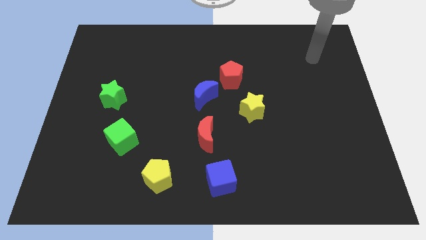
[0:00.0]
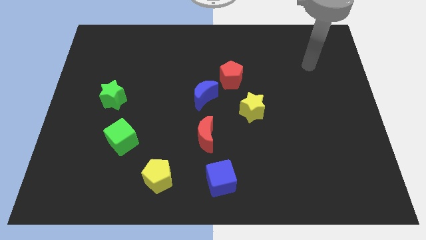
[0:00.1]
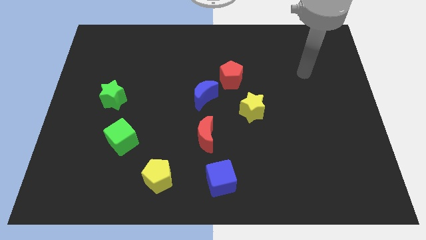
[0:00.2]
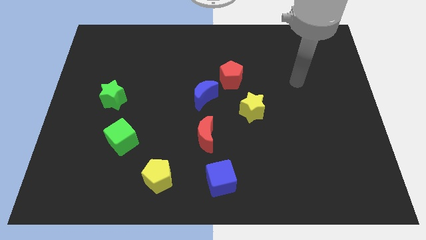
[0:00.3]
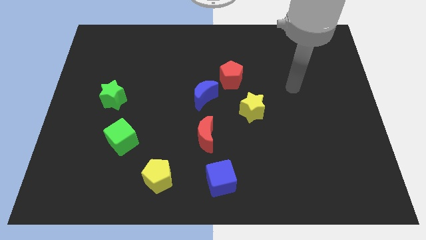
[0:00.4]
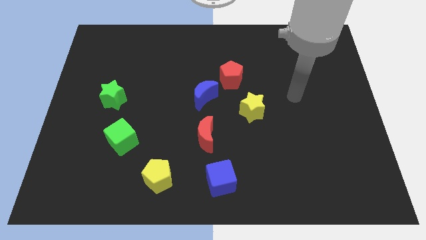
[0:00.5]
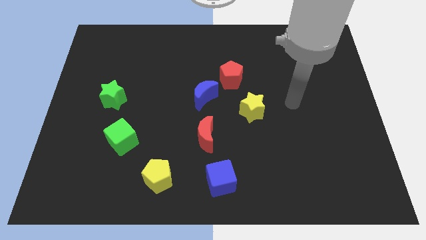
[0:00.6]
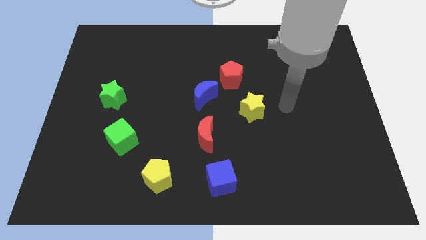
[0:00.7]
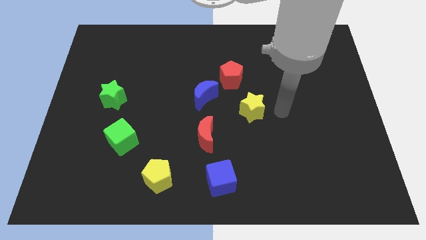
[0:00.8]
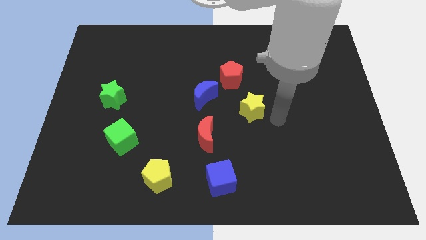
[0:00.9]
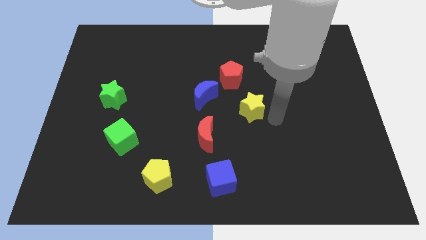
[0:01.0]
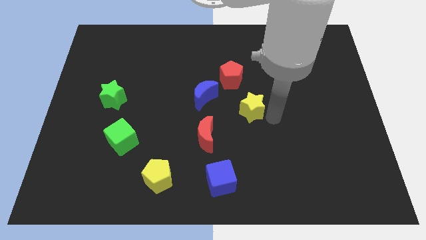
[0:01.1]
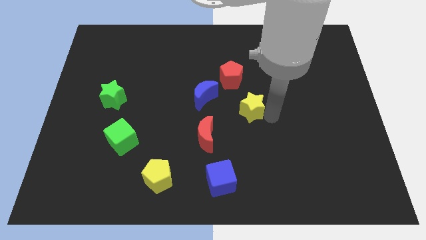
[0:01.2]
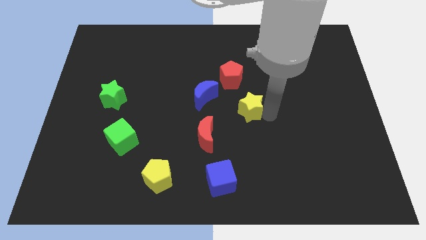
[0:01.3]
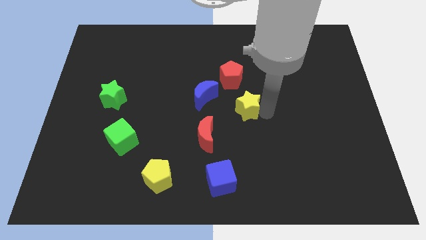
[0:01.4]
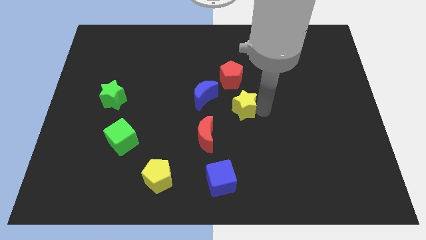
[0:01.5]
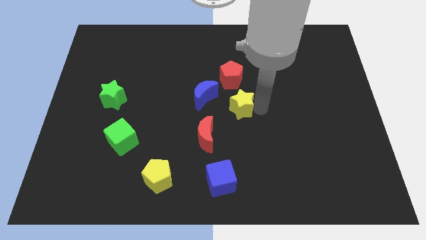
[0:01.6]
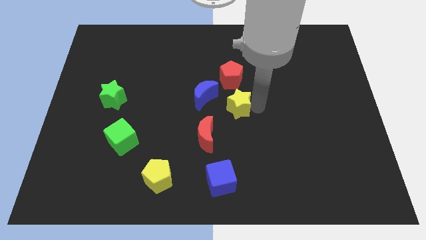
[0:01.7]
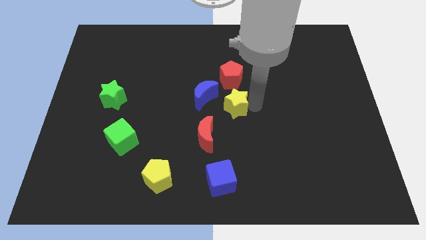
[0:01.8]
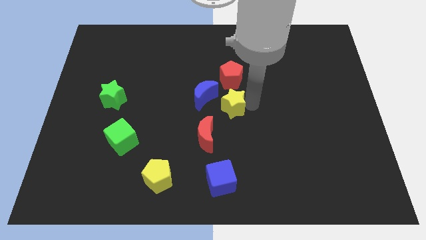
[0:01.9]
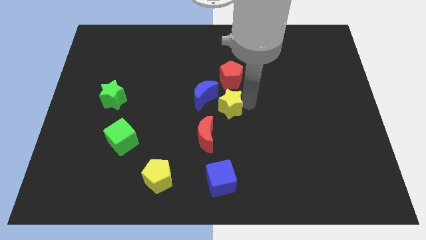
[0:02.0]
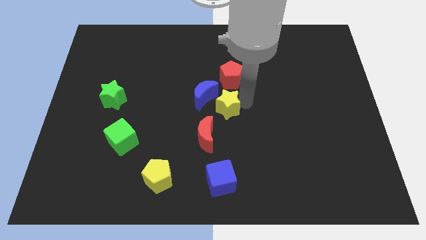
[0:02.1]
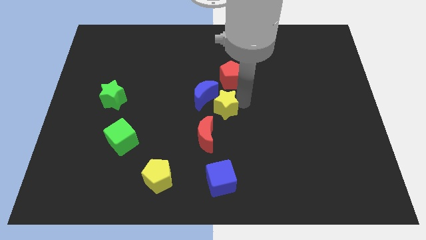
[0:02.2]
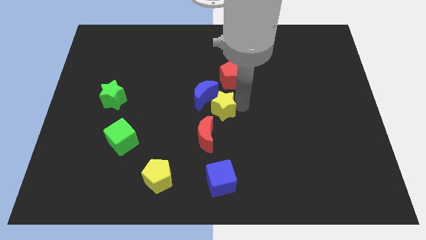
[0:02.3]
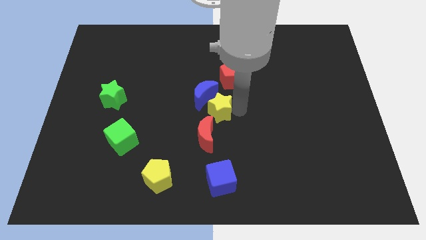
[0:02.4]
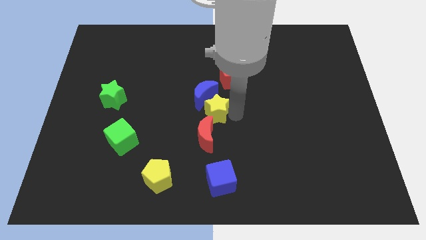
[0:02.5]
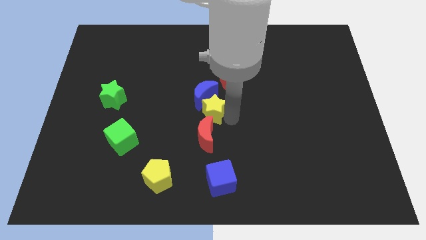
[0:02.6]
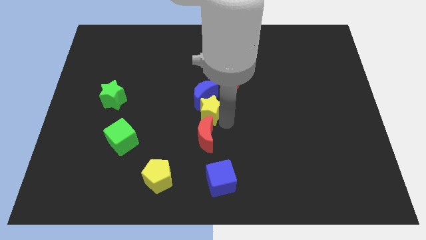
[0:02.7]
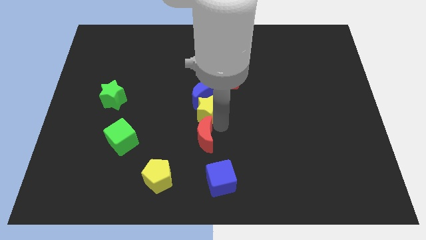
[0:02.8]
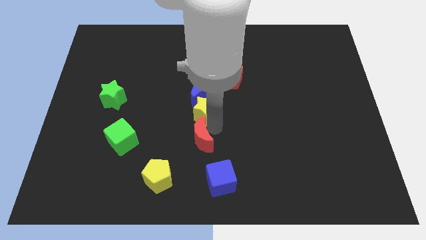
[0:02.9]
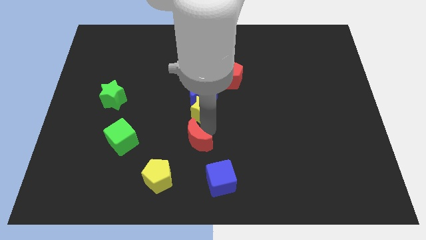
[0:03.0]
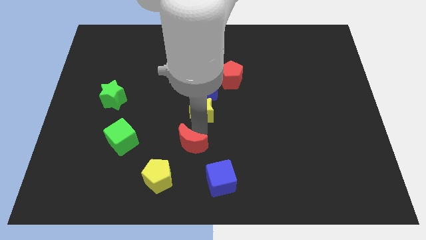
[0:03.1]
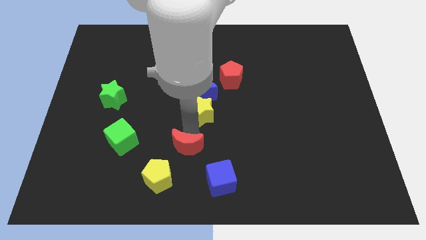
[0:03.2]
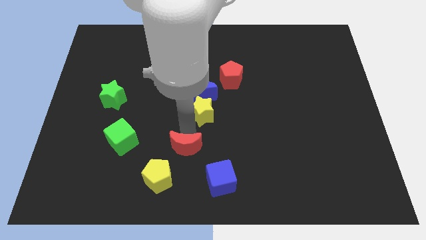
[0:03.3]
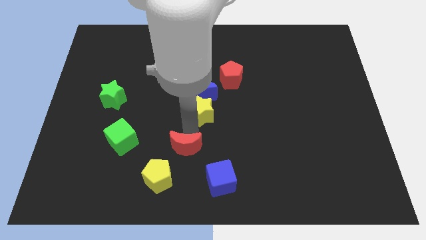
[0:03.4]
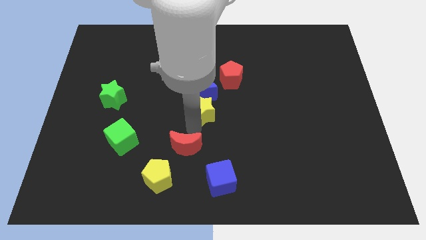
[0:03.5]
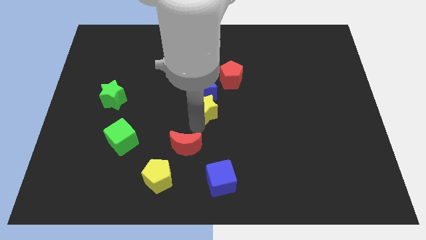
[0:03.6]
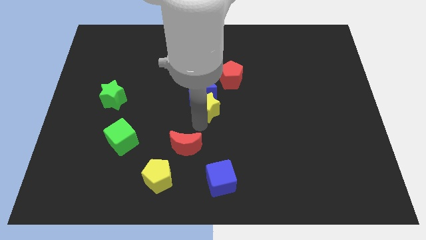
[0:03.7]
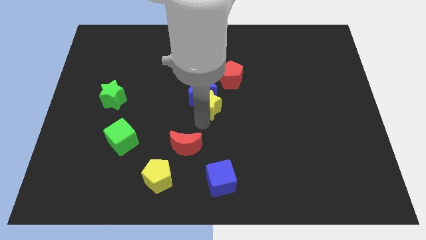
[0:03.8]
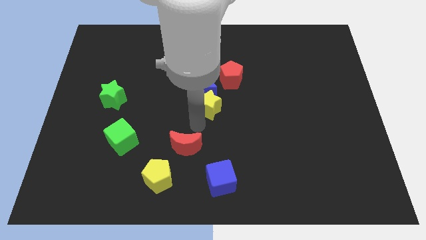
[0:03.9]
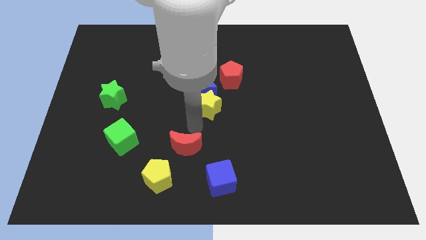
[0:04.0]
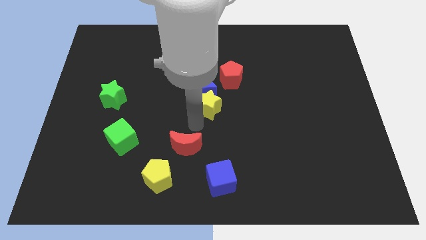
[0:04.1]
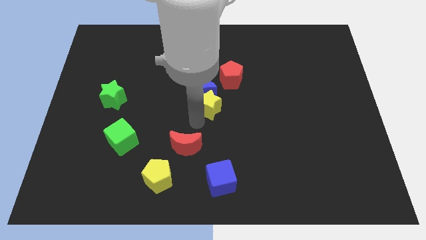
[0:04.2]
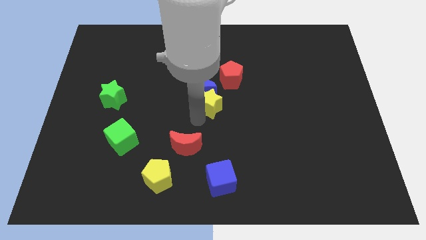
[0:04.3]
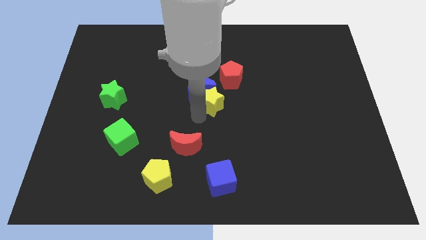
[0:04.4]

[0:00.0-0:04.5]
push the yellow star somewhat diagonally upwards and to the left

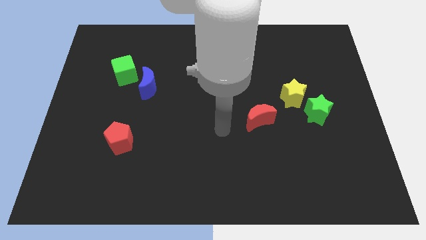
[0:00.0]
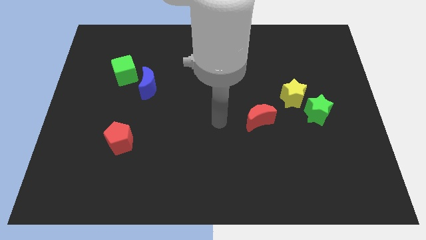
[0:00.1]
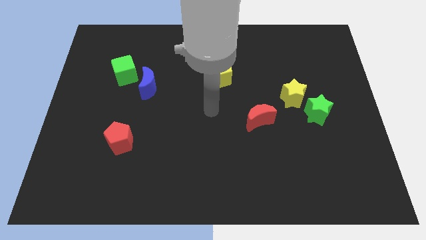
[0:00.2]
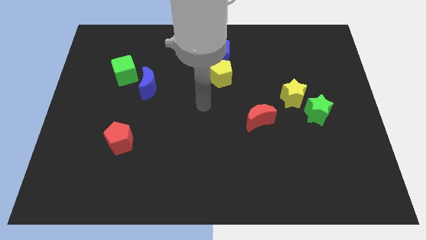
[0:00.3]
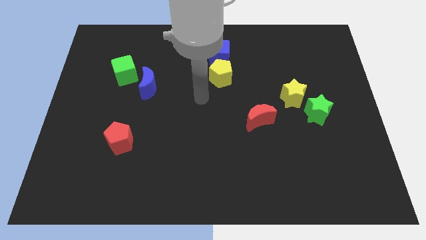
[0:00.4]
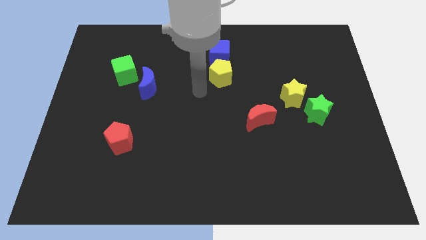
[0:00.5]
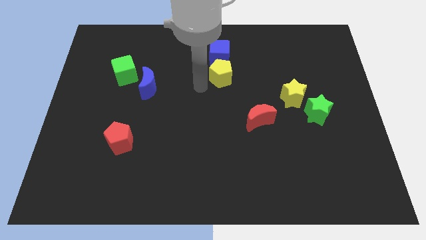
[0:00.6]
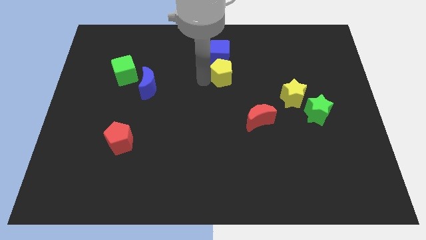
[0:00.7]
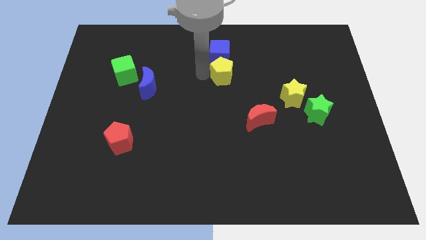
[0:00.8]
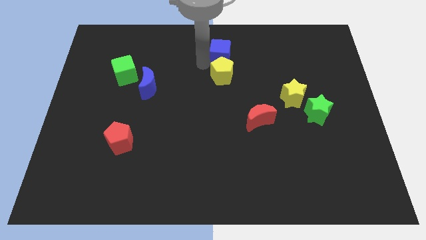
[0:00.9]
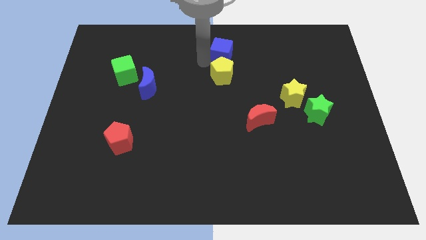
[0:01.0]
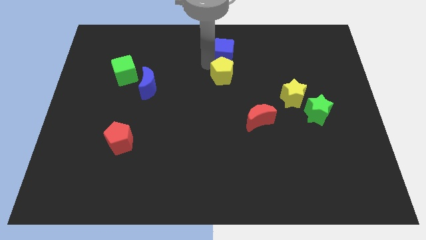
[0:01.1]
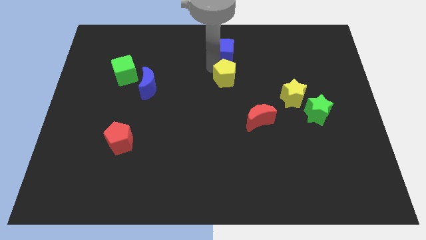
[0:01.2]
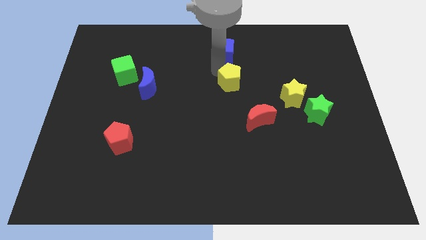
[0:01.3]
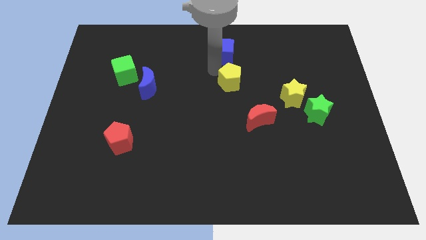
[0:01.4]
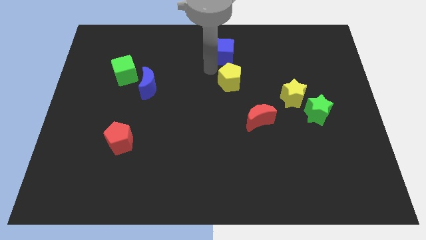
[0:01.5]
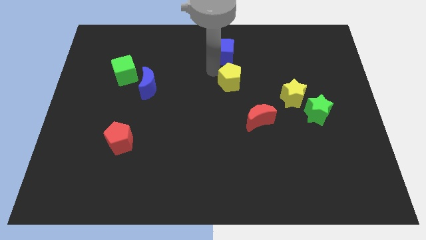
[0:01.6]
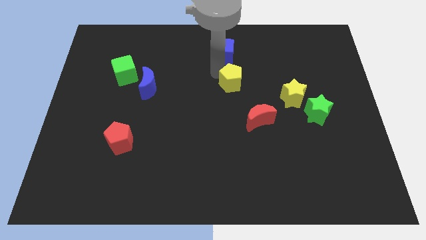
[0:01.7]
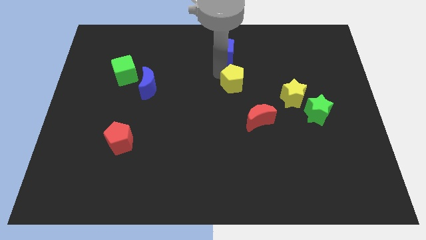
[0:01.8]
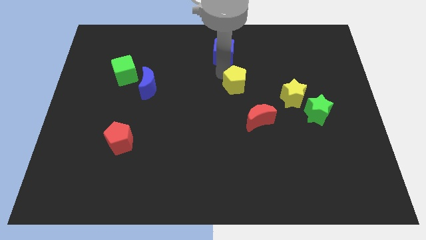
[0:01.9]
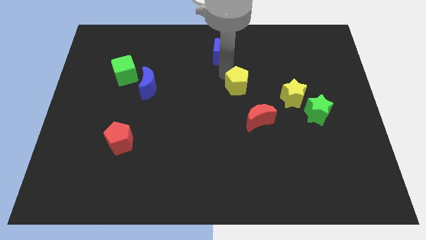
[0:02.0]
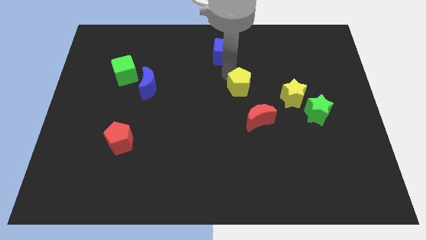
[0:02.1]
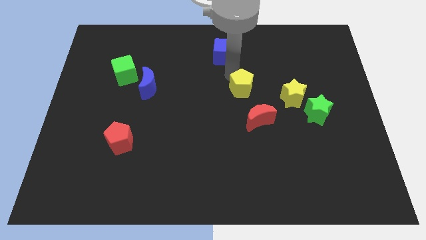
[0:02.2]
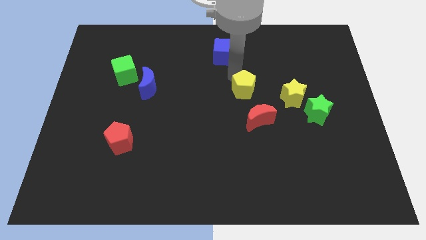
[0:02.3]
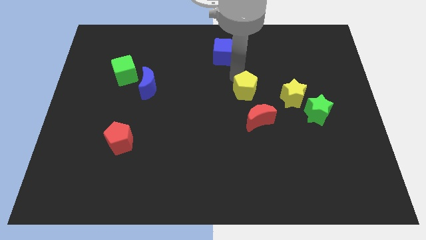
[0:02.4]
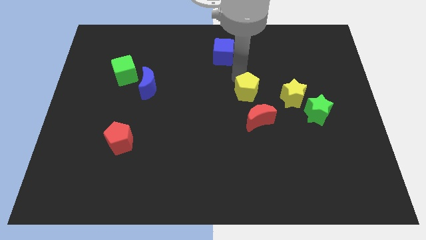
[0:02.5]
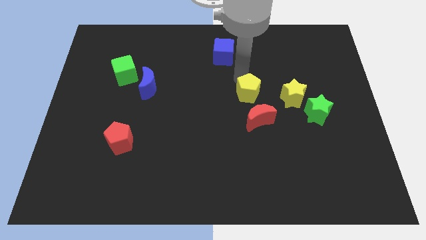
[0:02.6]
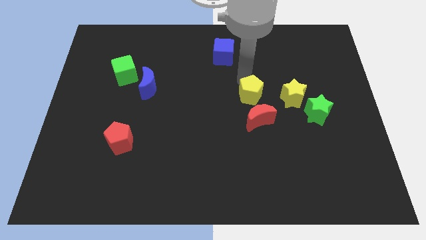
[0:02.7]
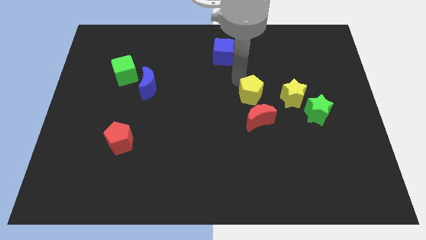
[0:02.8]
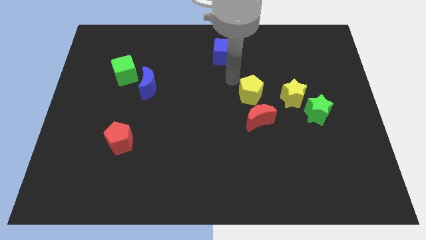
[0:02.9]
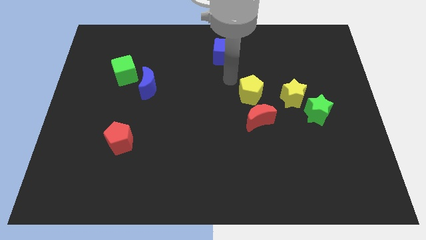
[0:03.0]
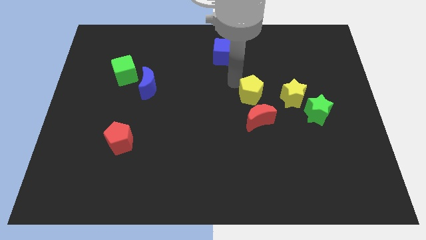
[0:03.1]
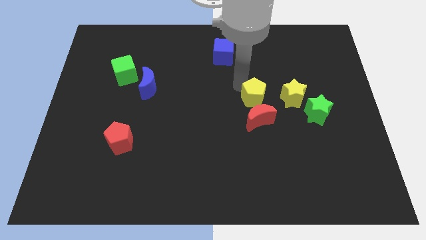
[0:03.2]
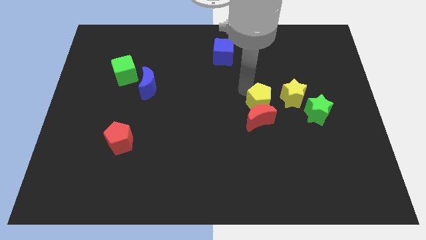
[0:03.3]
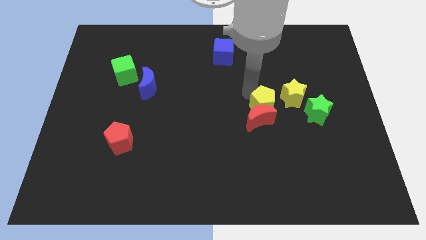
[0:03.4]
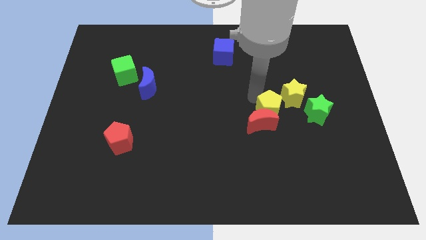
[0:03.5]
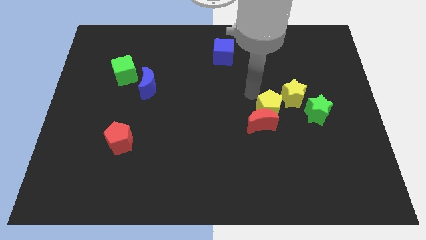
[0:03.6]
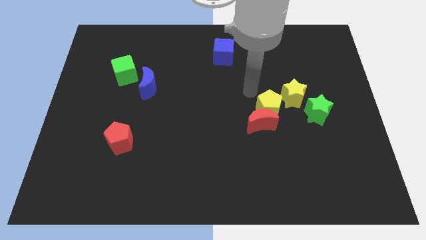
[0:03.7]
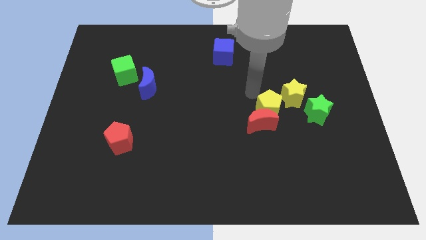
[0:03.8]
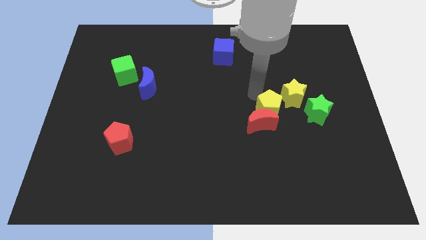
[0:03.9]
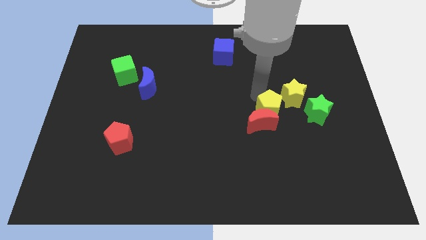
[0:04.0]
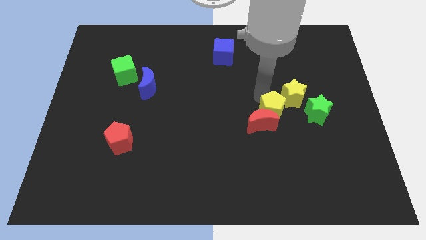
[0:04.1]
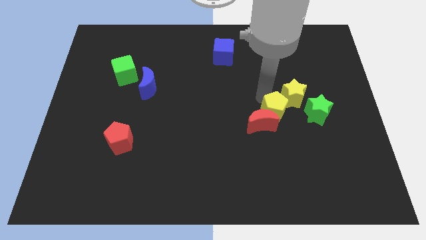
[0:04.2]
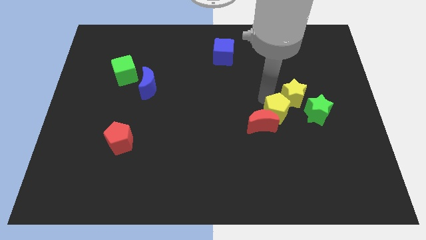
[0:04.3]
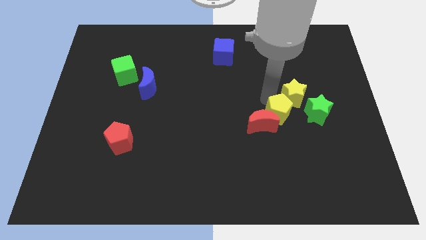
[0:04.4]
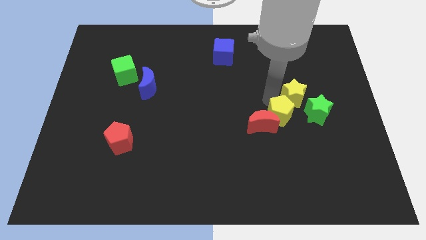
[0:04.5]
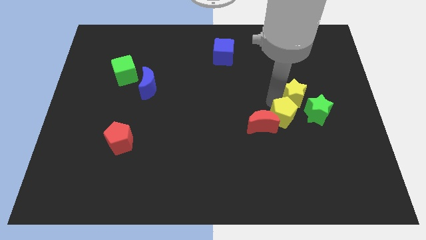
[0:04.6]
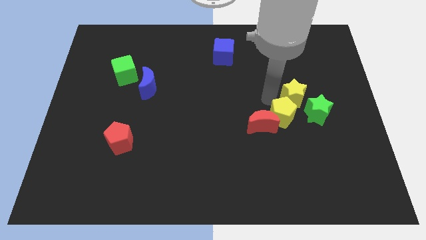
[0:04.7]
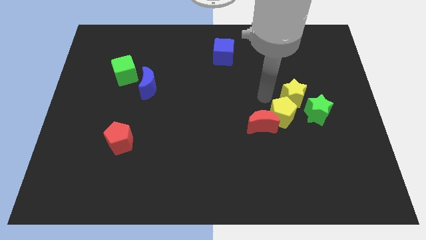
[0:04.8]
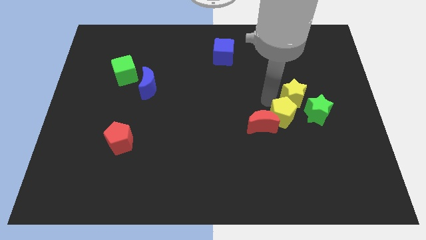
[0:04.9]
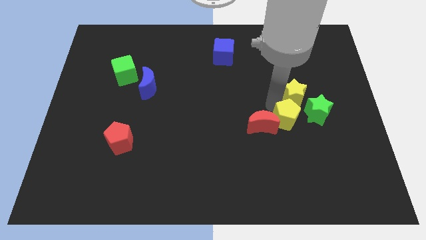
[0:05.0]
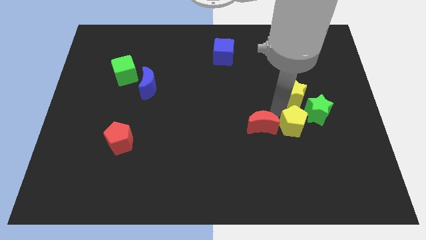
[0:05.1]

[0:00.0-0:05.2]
slide the yellow pentagon downwards and right
